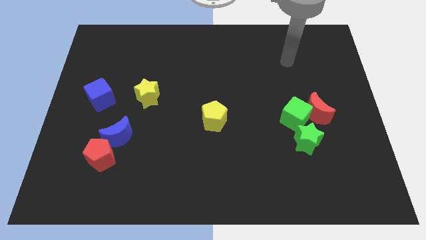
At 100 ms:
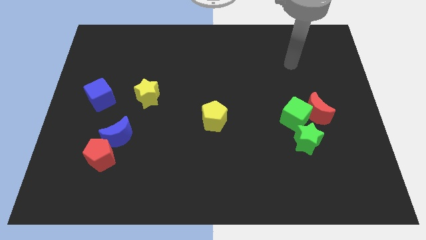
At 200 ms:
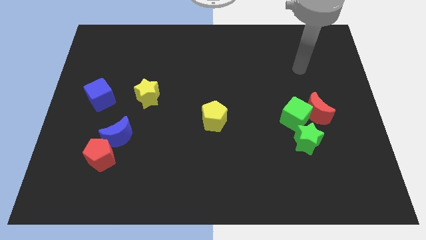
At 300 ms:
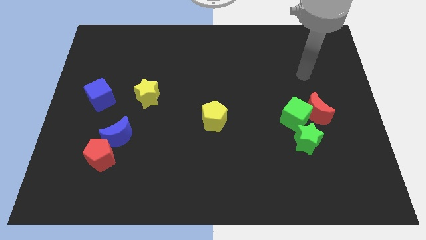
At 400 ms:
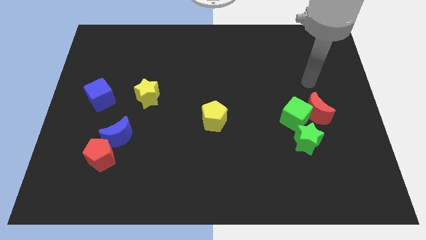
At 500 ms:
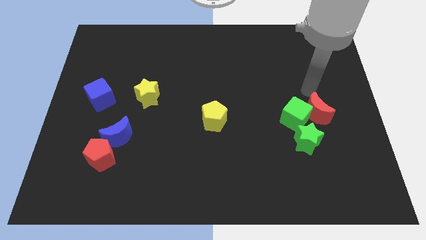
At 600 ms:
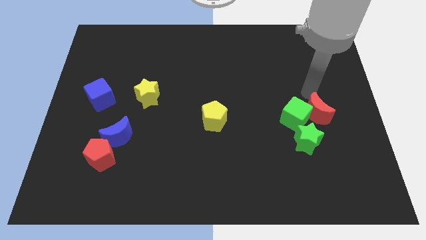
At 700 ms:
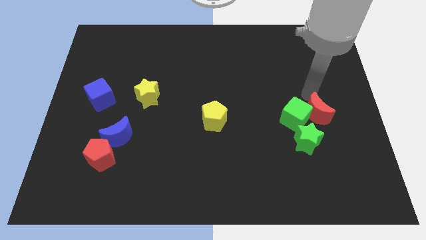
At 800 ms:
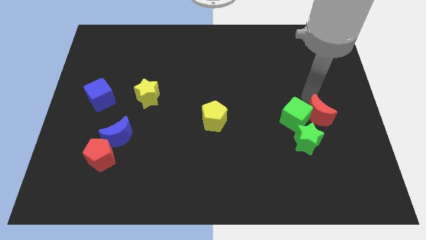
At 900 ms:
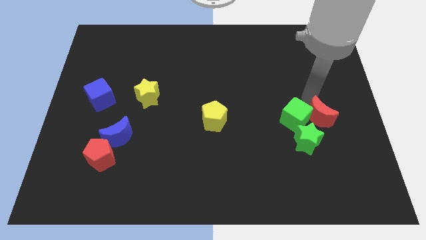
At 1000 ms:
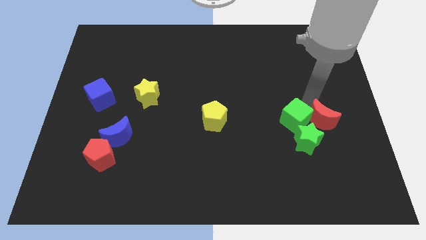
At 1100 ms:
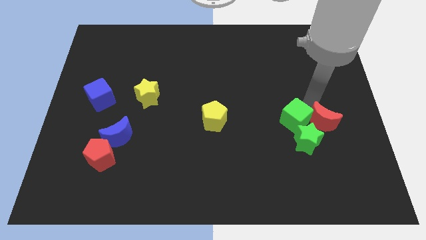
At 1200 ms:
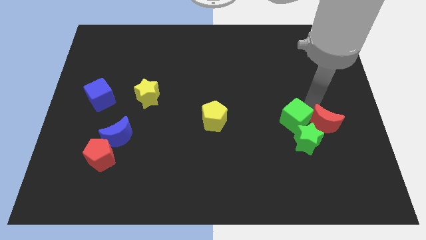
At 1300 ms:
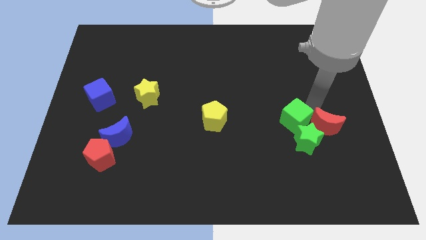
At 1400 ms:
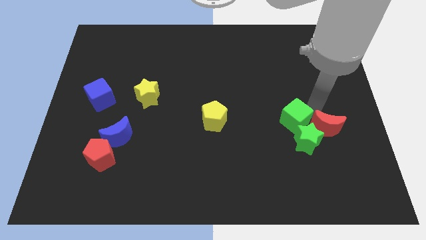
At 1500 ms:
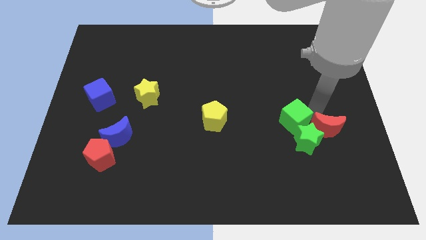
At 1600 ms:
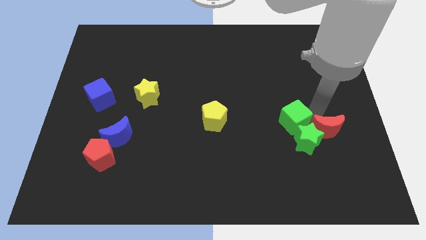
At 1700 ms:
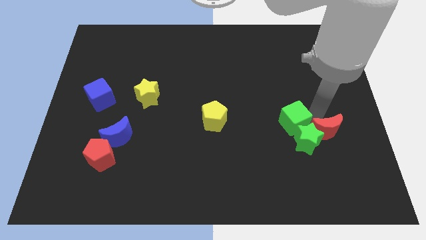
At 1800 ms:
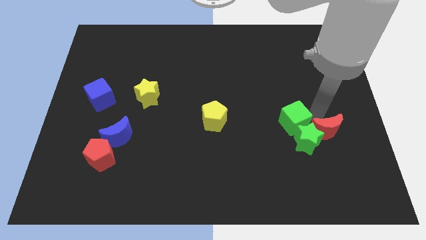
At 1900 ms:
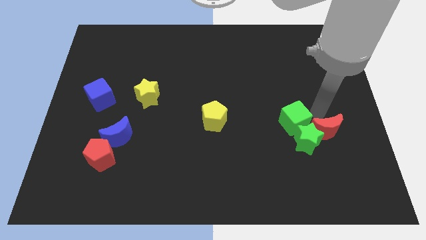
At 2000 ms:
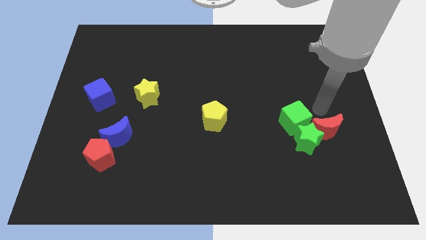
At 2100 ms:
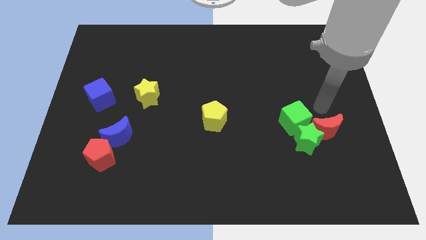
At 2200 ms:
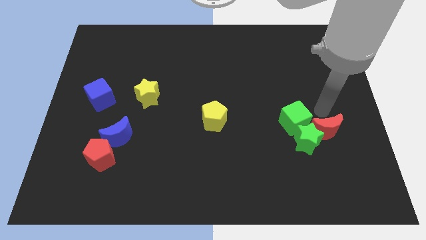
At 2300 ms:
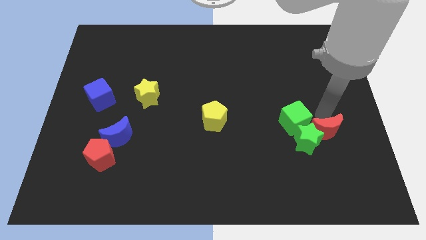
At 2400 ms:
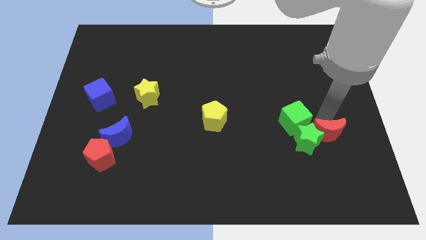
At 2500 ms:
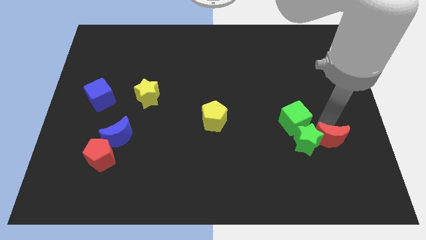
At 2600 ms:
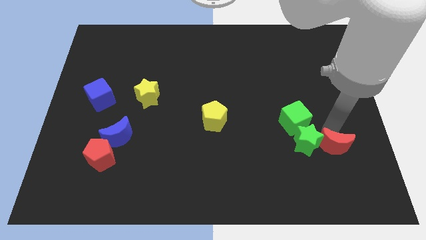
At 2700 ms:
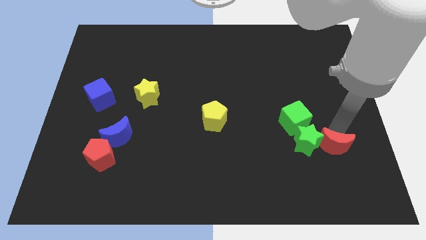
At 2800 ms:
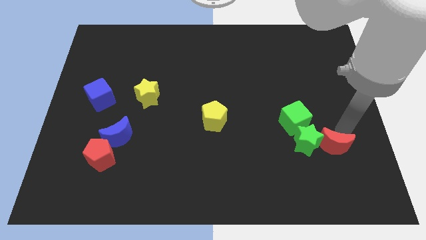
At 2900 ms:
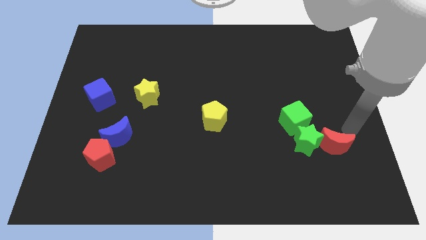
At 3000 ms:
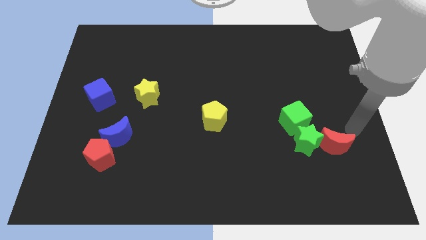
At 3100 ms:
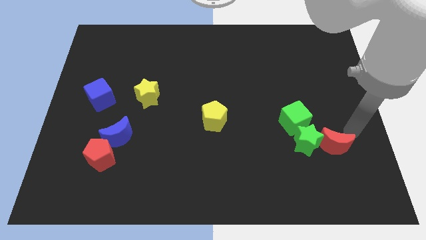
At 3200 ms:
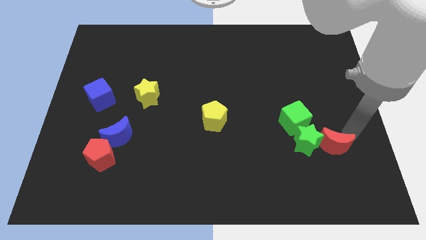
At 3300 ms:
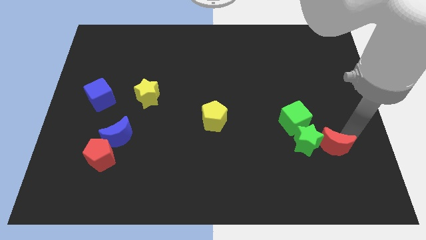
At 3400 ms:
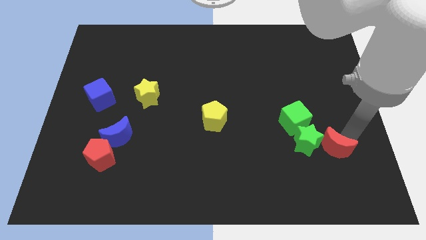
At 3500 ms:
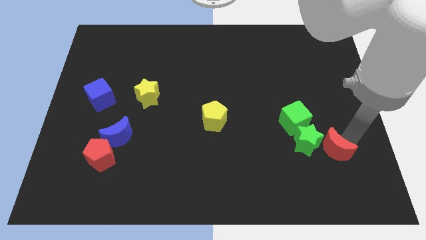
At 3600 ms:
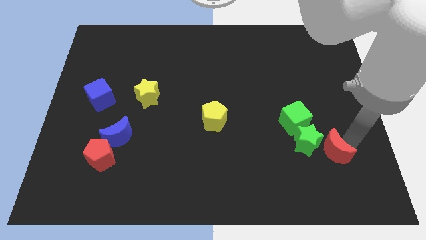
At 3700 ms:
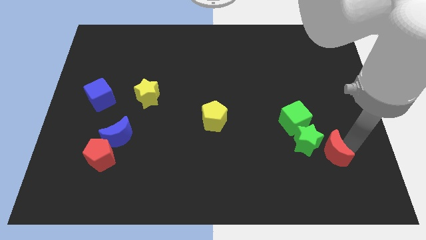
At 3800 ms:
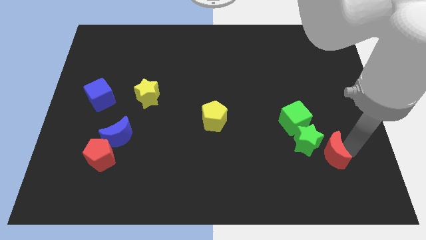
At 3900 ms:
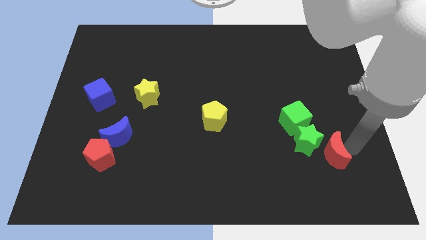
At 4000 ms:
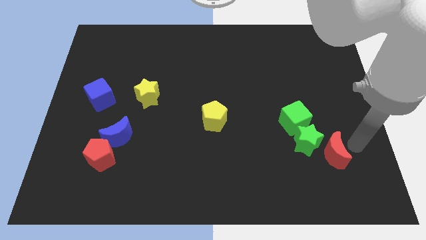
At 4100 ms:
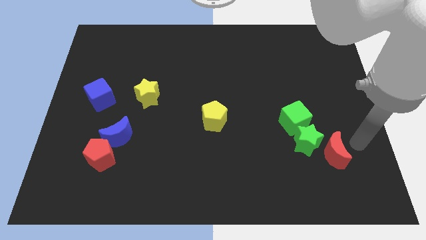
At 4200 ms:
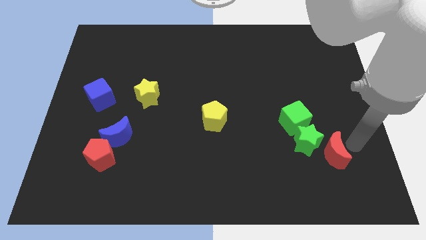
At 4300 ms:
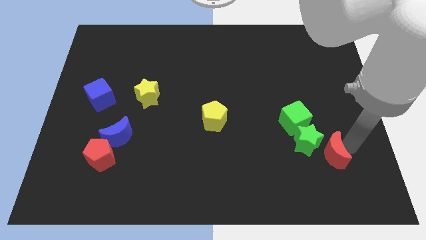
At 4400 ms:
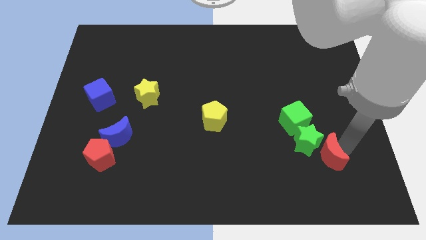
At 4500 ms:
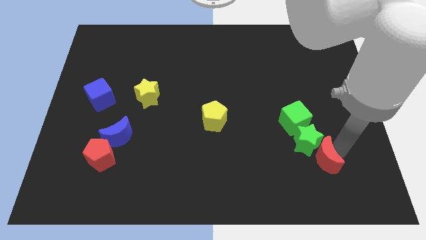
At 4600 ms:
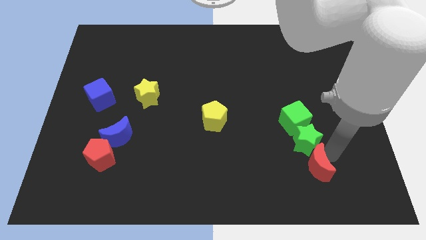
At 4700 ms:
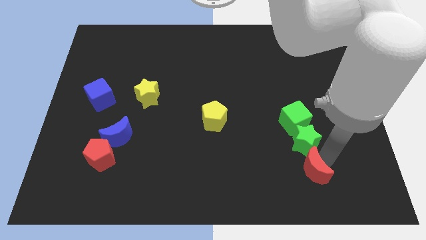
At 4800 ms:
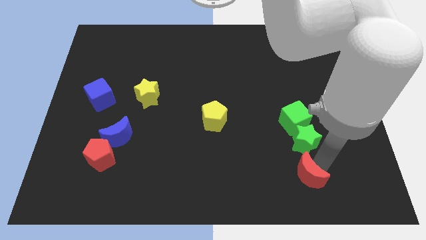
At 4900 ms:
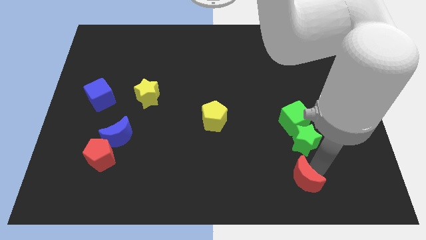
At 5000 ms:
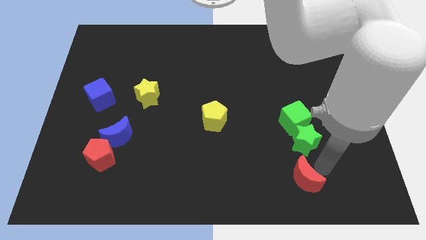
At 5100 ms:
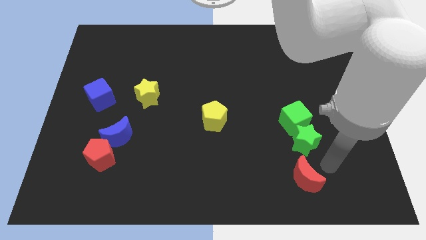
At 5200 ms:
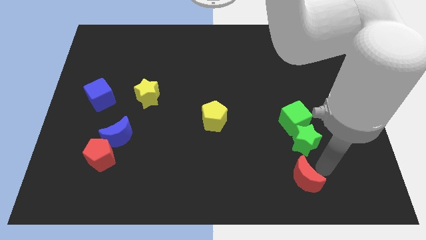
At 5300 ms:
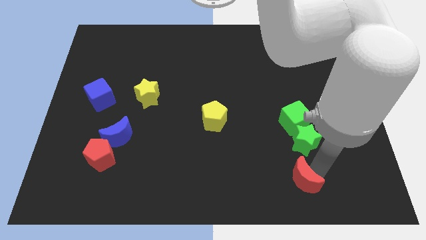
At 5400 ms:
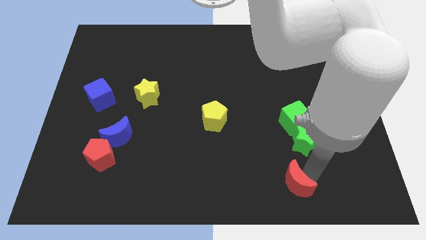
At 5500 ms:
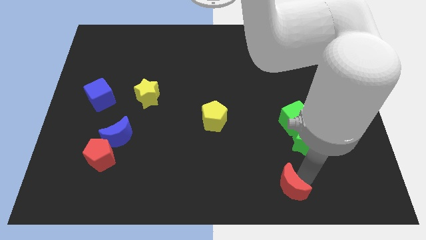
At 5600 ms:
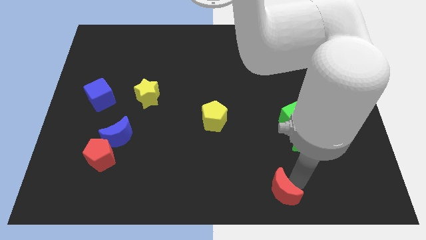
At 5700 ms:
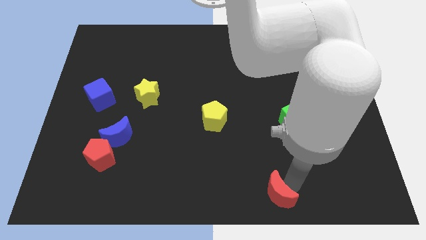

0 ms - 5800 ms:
move the red moon to the bottom

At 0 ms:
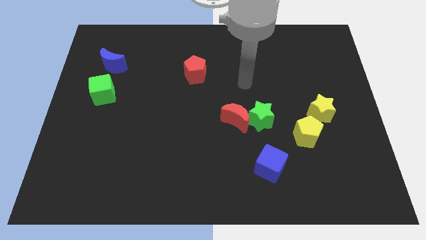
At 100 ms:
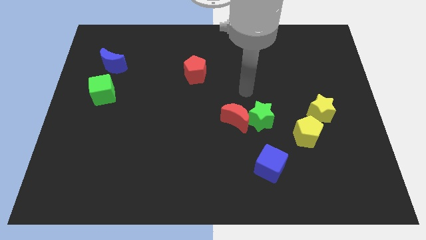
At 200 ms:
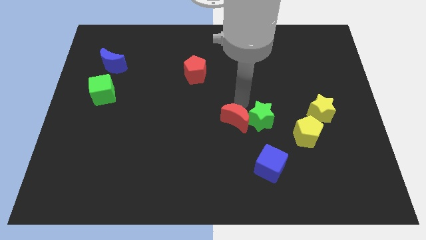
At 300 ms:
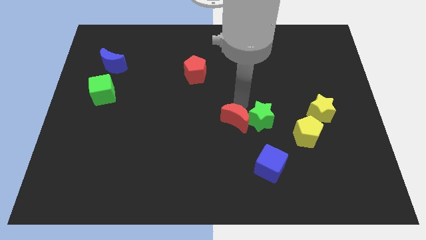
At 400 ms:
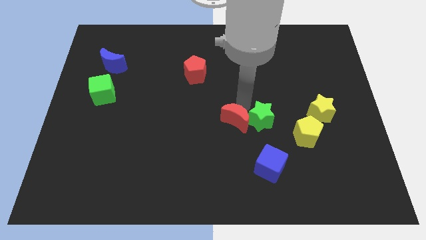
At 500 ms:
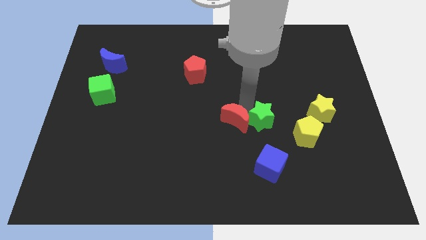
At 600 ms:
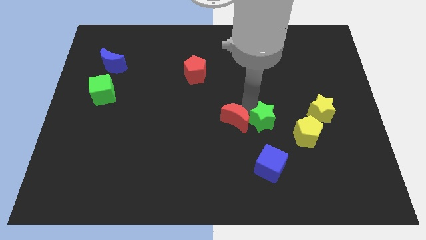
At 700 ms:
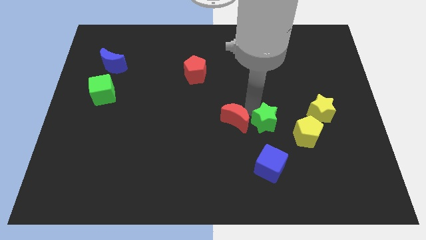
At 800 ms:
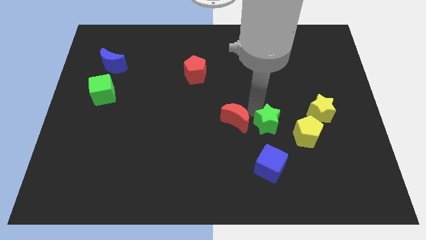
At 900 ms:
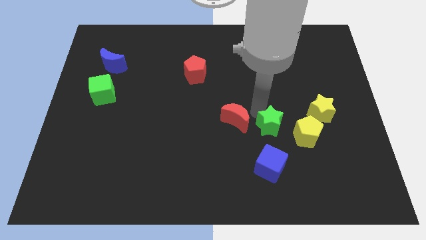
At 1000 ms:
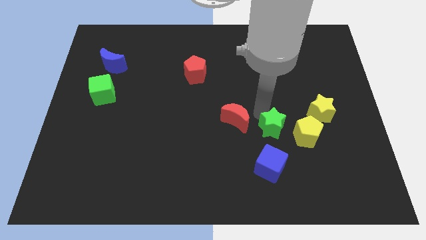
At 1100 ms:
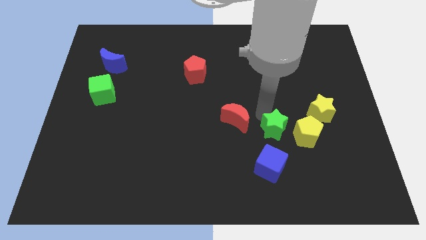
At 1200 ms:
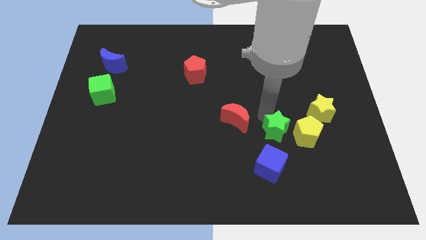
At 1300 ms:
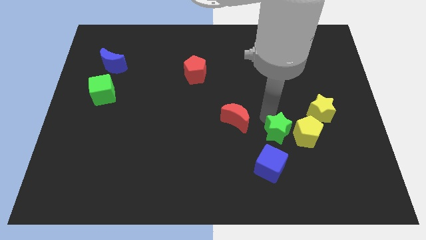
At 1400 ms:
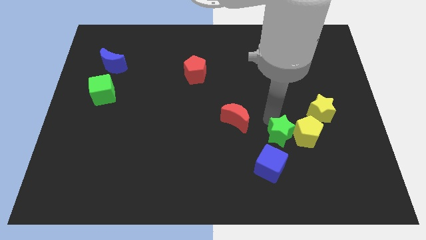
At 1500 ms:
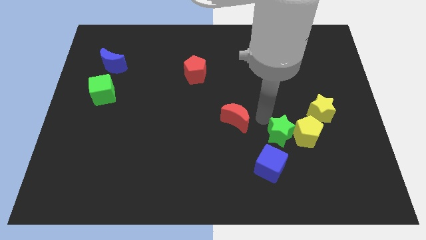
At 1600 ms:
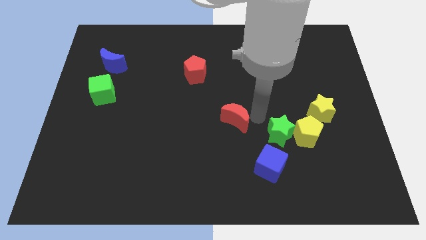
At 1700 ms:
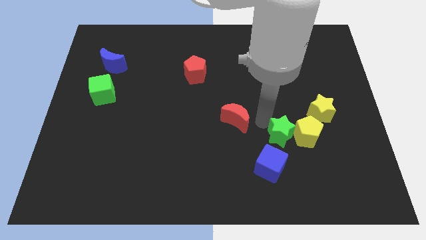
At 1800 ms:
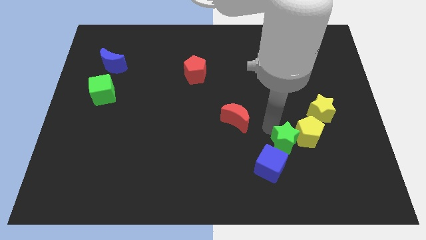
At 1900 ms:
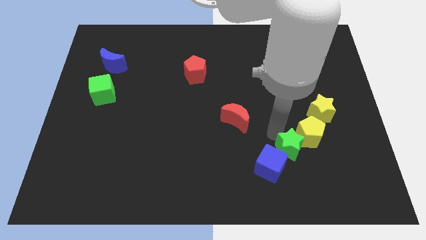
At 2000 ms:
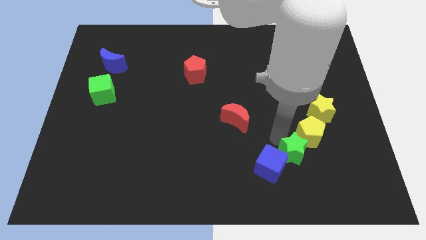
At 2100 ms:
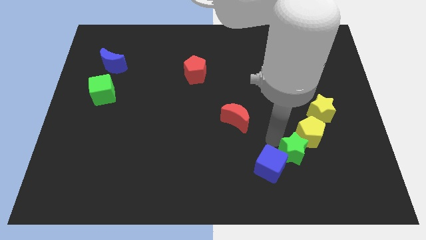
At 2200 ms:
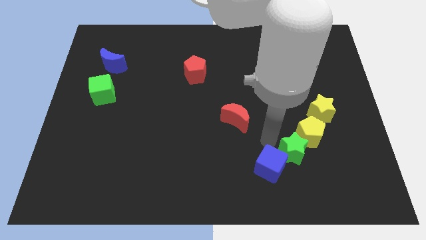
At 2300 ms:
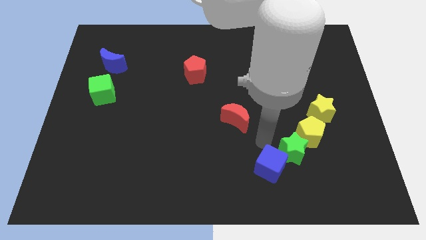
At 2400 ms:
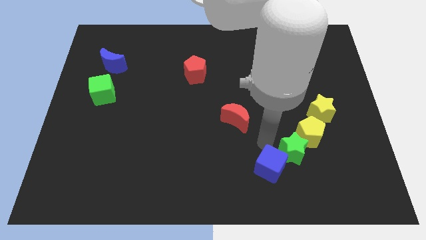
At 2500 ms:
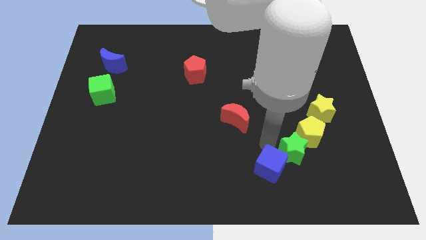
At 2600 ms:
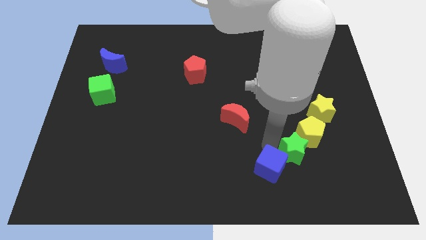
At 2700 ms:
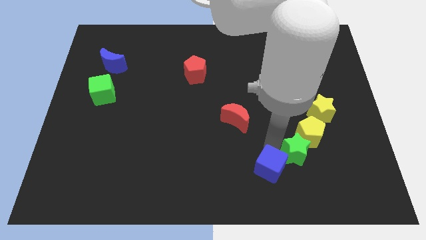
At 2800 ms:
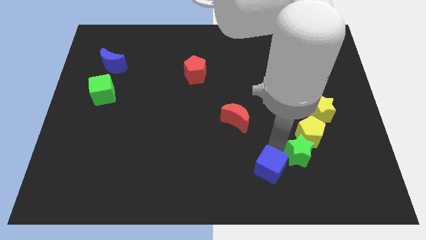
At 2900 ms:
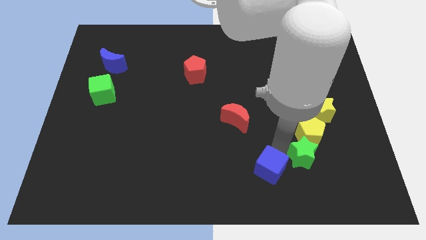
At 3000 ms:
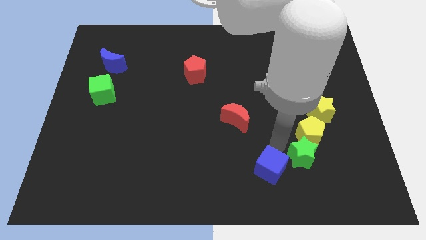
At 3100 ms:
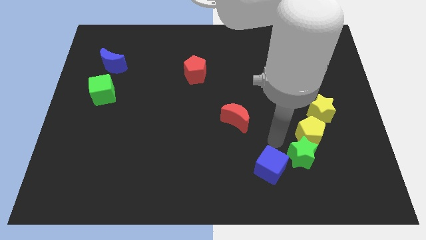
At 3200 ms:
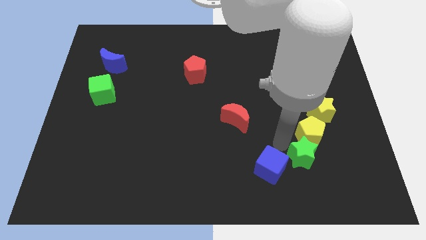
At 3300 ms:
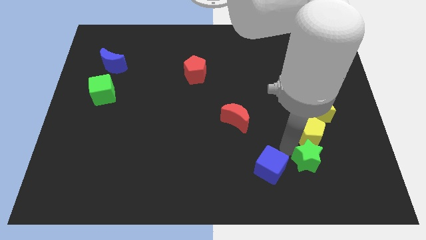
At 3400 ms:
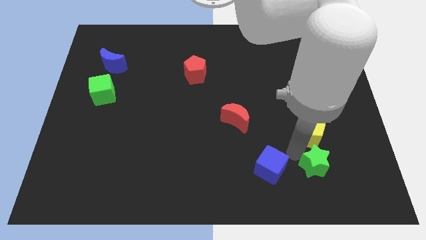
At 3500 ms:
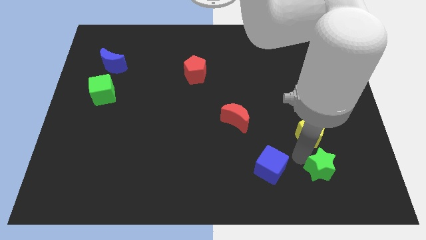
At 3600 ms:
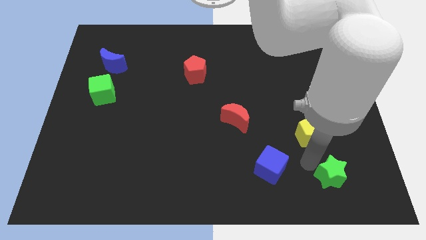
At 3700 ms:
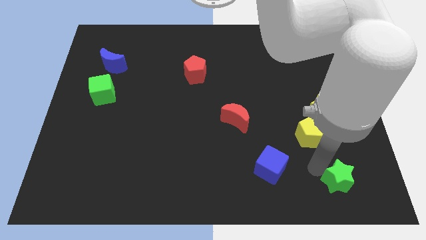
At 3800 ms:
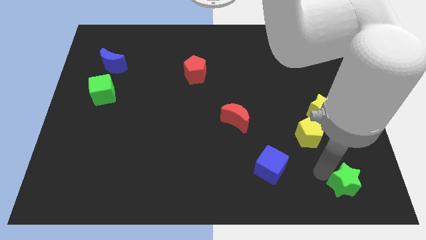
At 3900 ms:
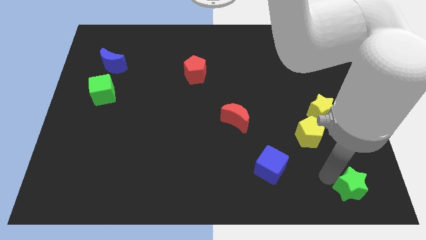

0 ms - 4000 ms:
slide the green star to the bottom right corner
